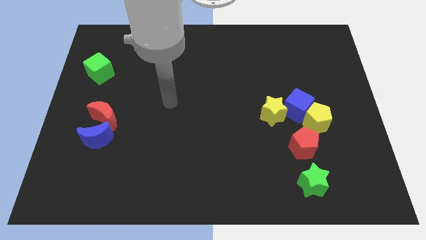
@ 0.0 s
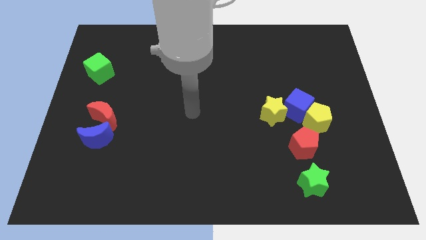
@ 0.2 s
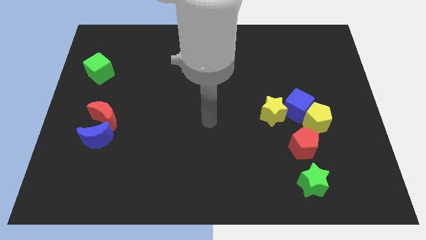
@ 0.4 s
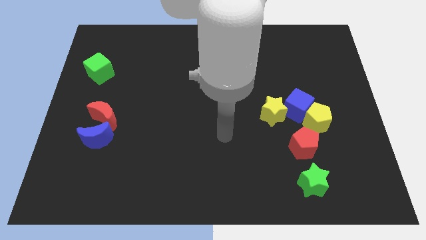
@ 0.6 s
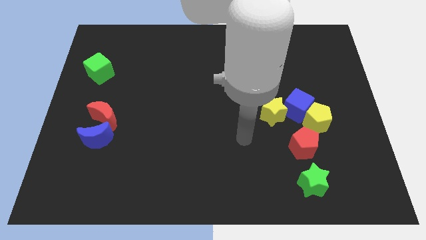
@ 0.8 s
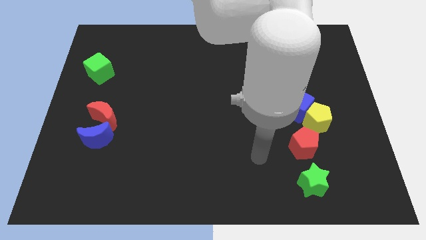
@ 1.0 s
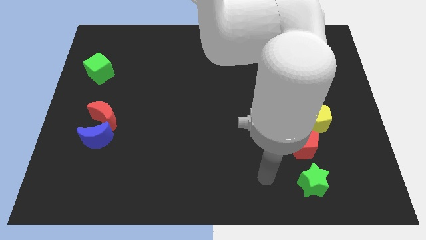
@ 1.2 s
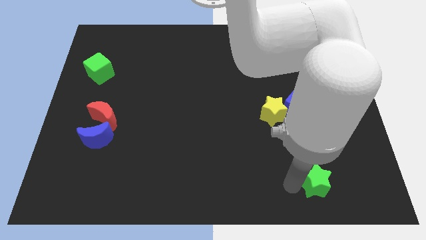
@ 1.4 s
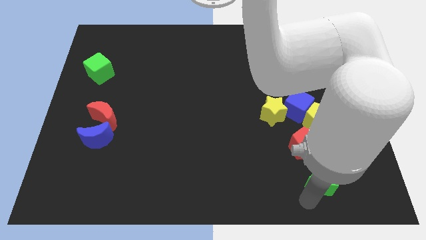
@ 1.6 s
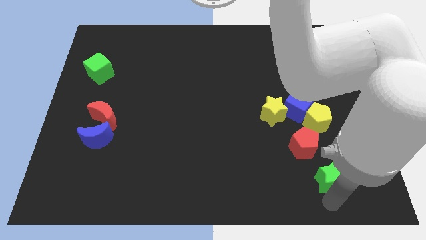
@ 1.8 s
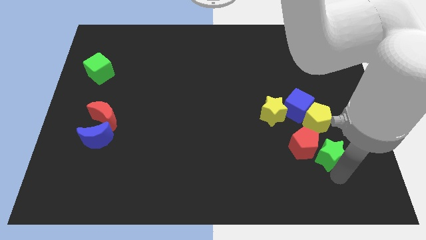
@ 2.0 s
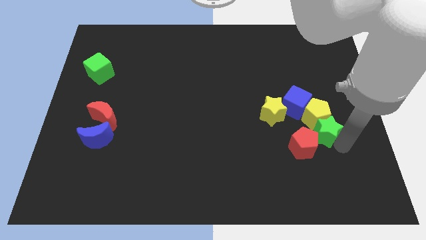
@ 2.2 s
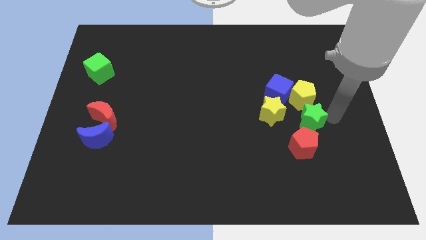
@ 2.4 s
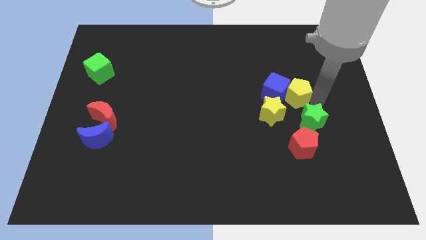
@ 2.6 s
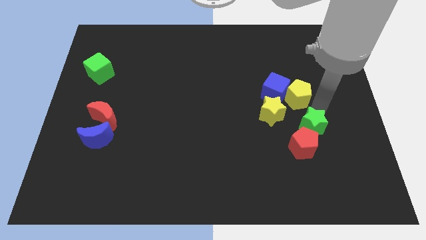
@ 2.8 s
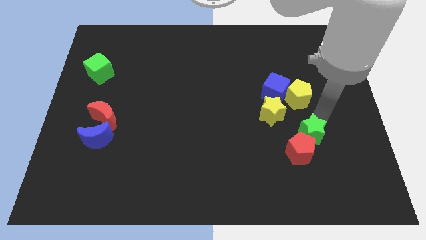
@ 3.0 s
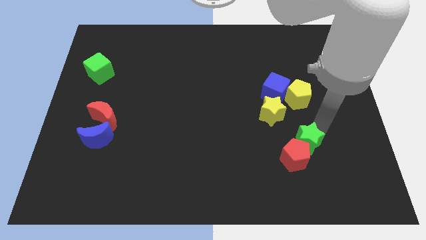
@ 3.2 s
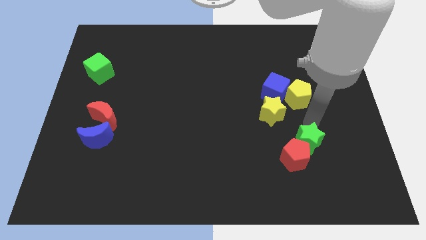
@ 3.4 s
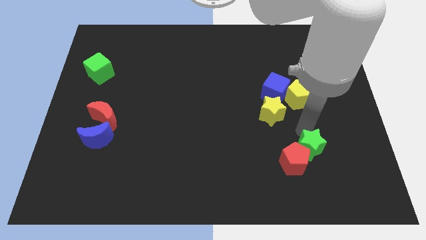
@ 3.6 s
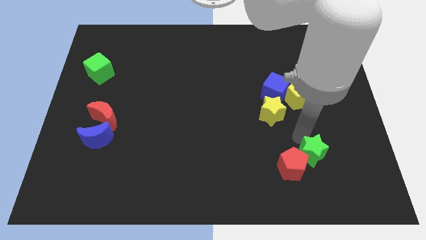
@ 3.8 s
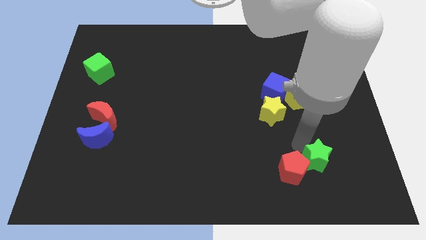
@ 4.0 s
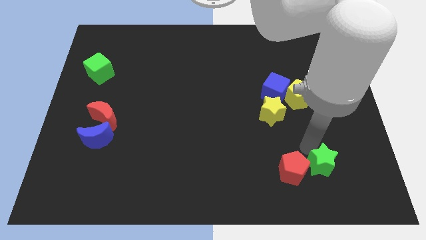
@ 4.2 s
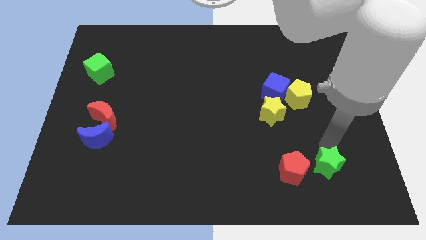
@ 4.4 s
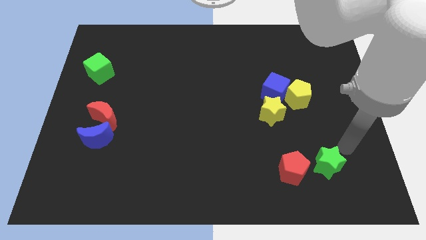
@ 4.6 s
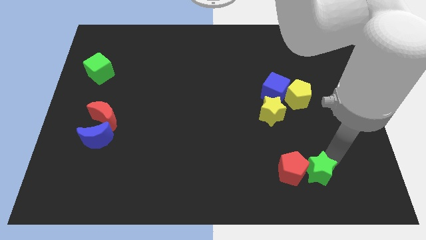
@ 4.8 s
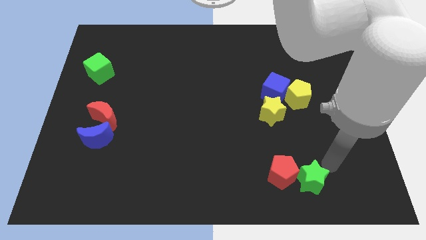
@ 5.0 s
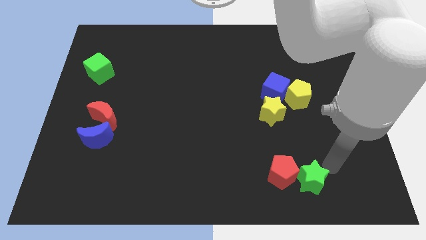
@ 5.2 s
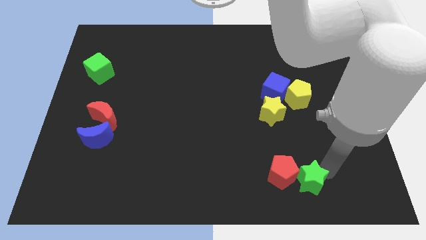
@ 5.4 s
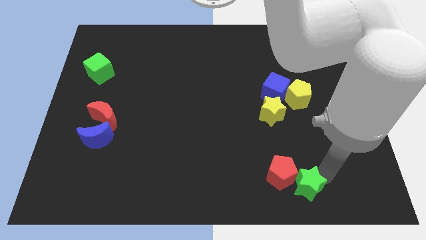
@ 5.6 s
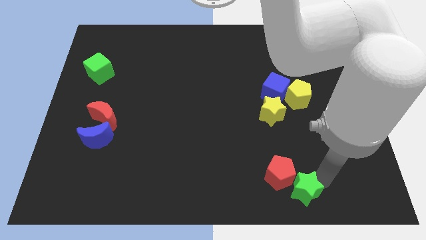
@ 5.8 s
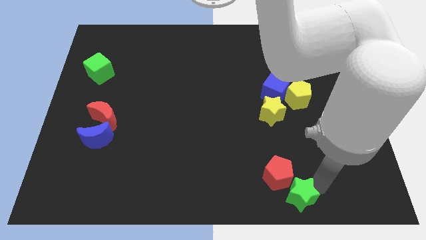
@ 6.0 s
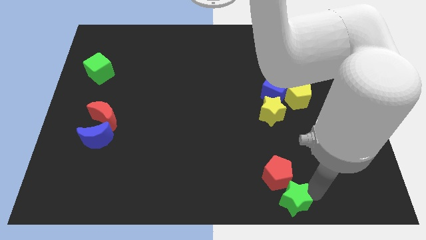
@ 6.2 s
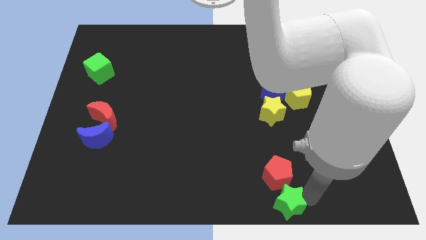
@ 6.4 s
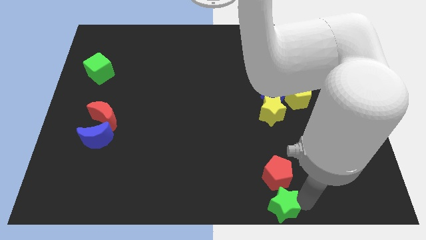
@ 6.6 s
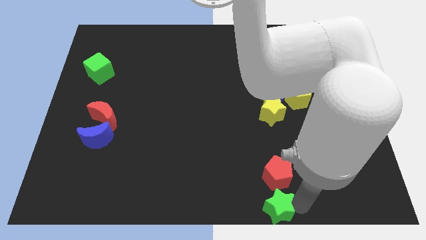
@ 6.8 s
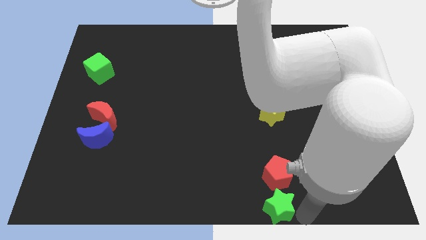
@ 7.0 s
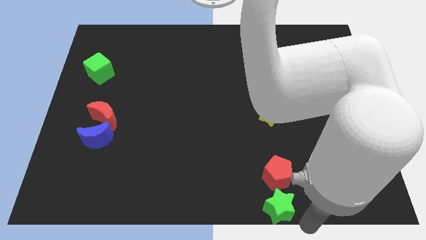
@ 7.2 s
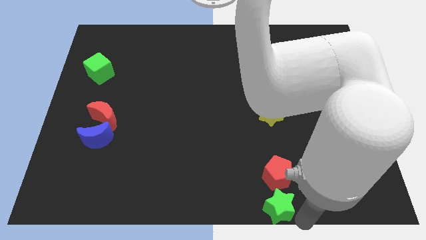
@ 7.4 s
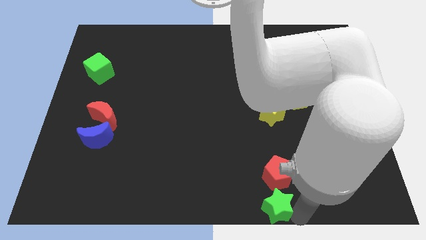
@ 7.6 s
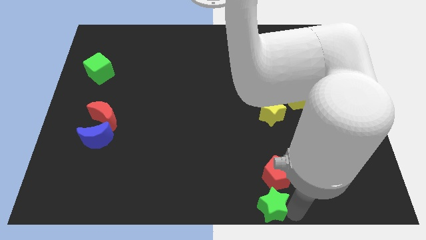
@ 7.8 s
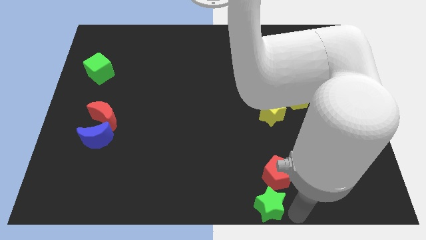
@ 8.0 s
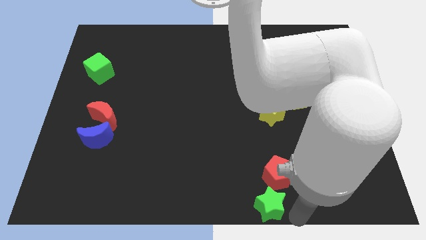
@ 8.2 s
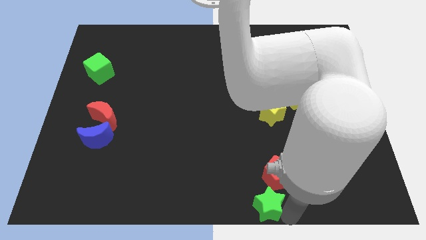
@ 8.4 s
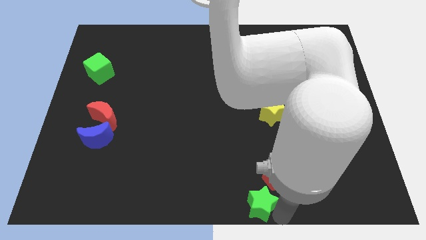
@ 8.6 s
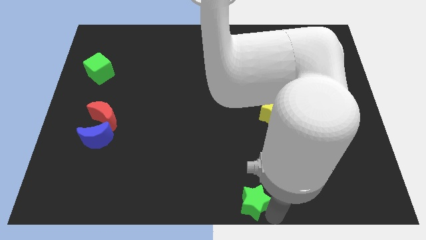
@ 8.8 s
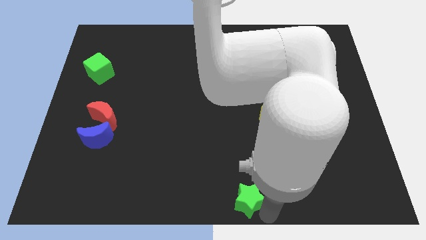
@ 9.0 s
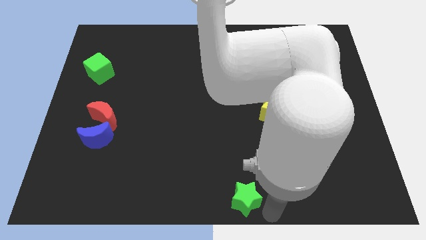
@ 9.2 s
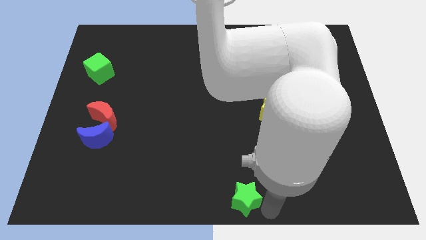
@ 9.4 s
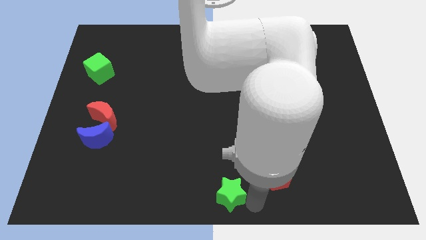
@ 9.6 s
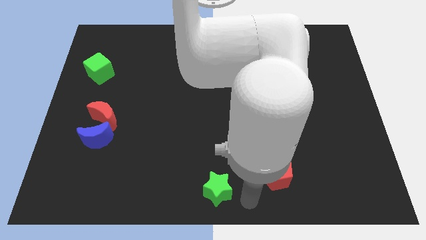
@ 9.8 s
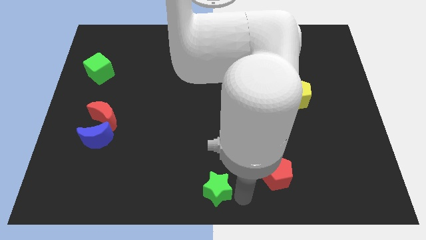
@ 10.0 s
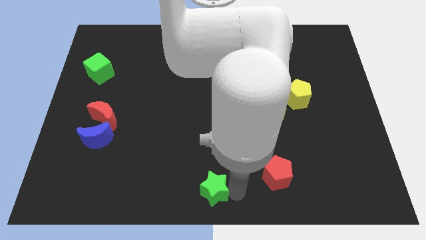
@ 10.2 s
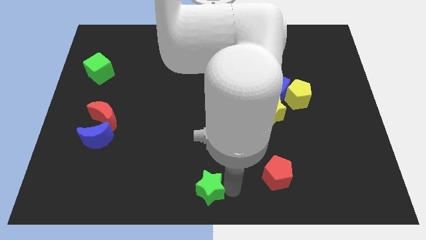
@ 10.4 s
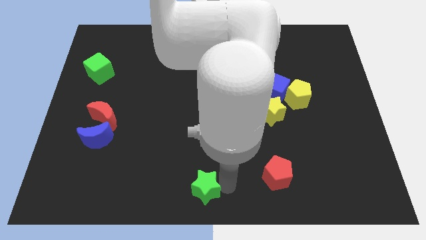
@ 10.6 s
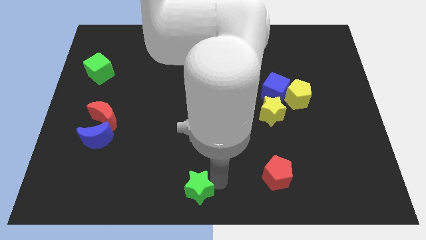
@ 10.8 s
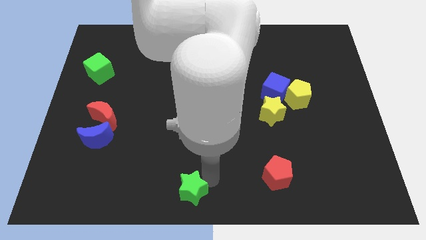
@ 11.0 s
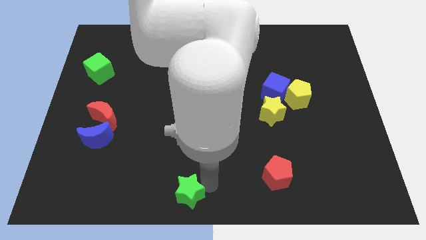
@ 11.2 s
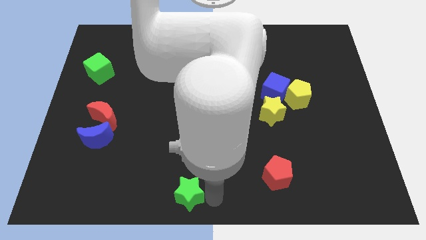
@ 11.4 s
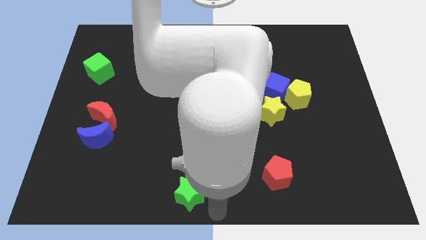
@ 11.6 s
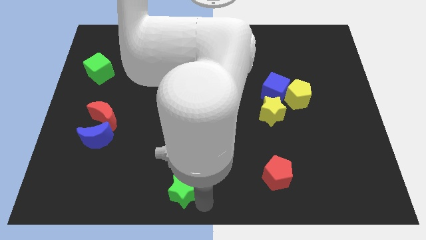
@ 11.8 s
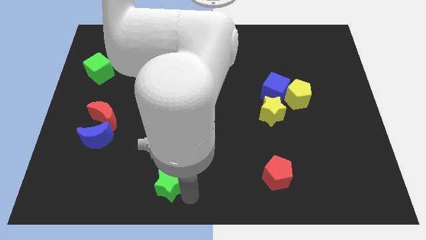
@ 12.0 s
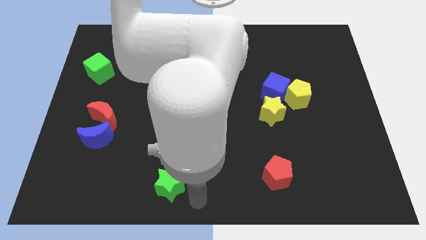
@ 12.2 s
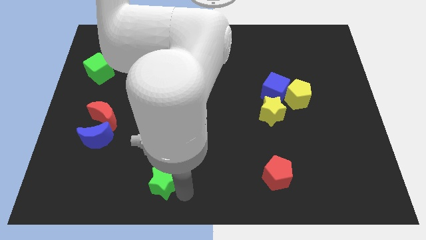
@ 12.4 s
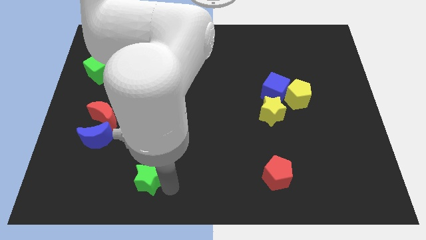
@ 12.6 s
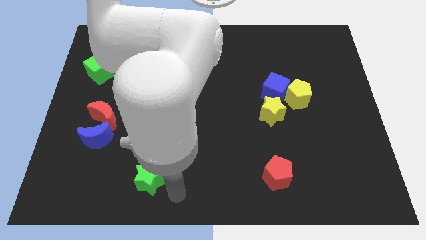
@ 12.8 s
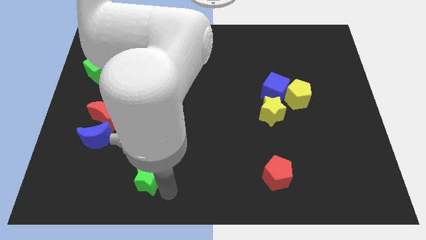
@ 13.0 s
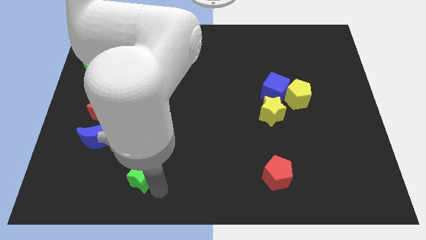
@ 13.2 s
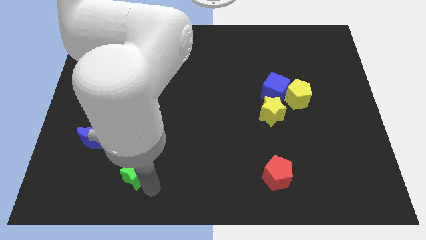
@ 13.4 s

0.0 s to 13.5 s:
push the green star diagonally down and to the right of the blue moon
